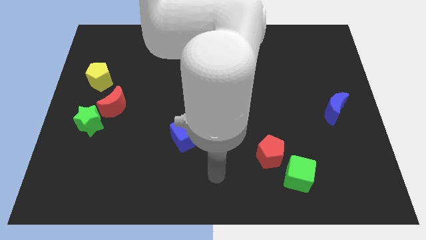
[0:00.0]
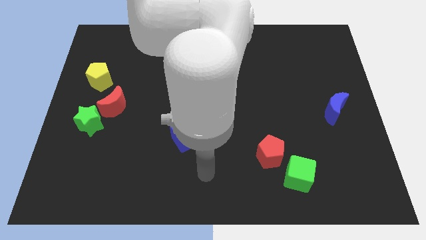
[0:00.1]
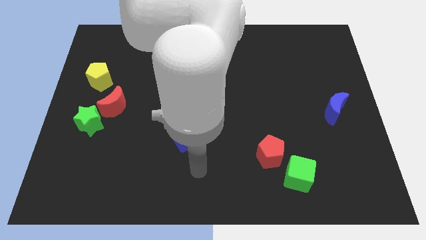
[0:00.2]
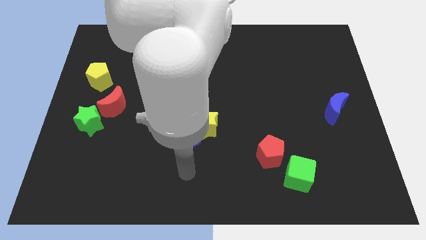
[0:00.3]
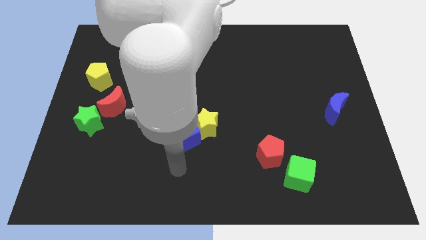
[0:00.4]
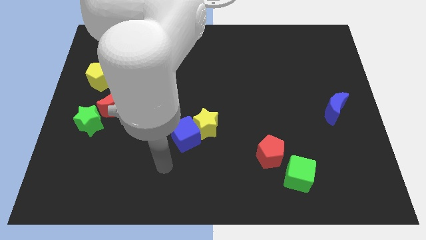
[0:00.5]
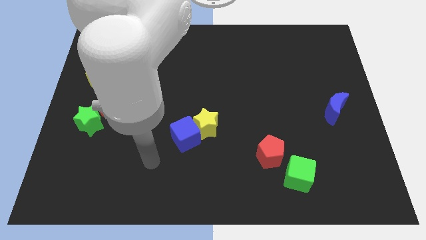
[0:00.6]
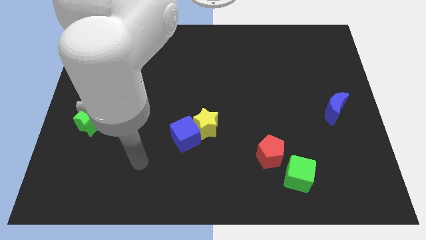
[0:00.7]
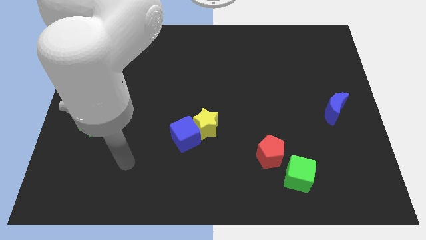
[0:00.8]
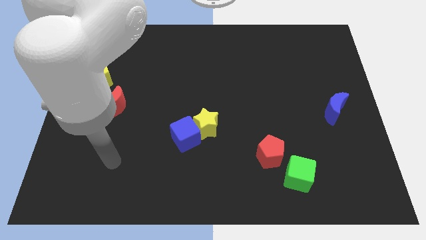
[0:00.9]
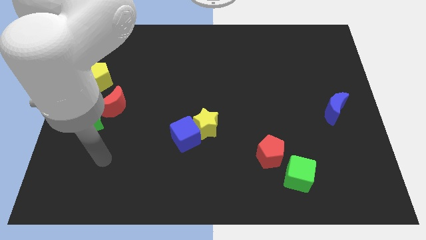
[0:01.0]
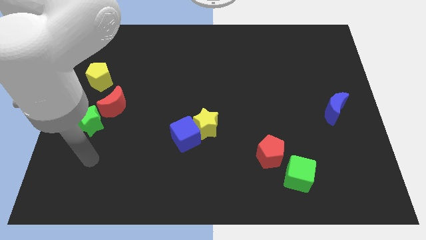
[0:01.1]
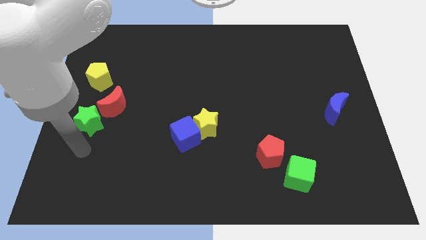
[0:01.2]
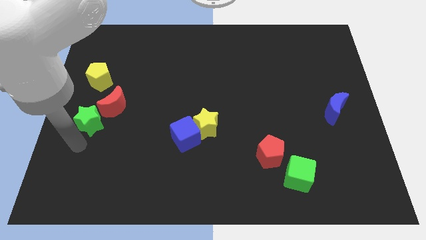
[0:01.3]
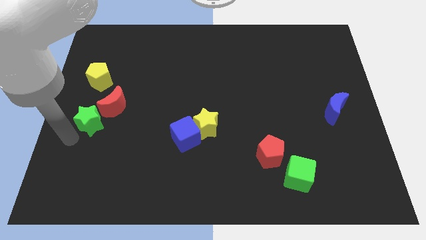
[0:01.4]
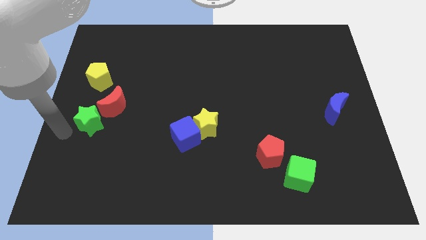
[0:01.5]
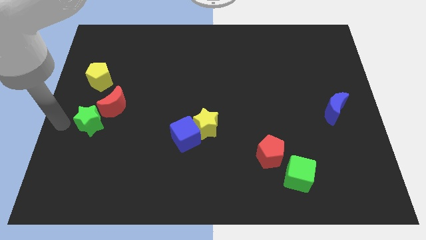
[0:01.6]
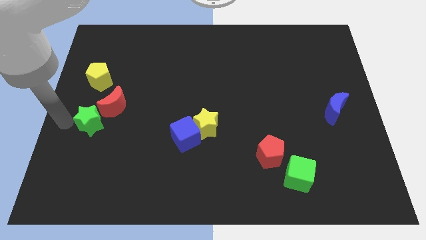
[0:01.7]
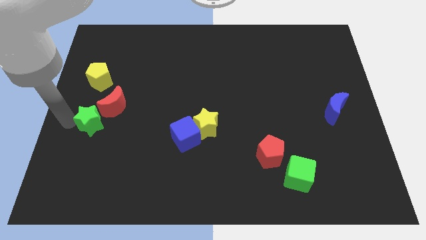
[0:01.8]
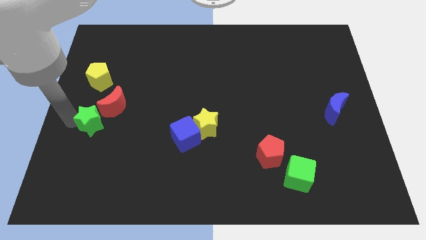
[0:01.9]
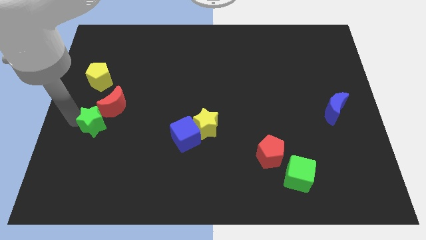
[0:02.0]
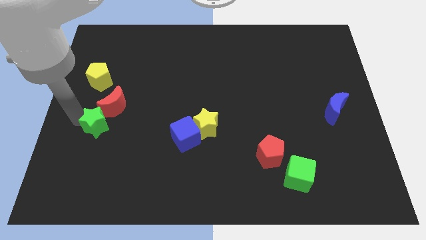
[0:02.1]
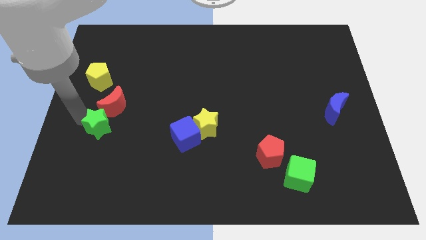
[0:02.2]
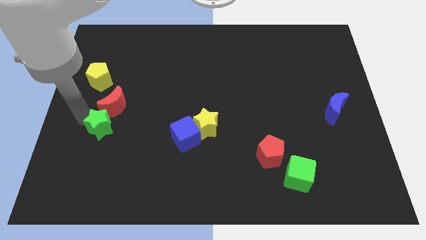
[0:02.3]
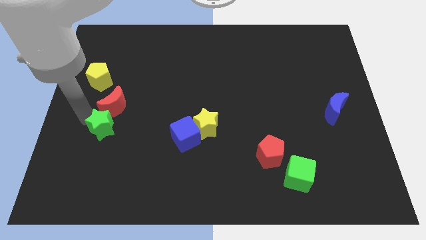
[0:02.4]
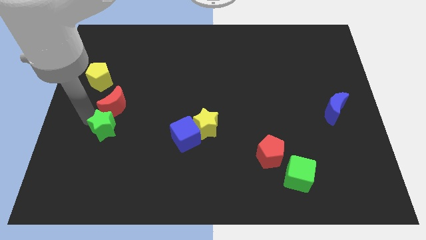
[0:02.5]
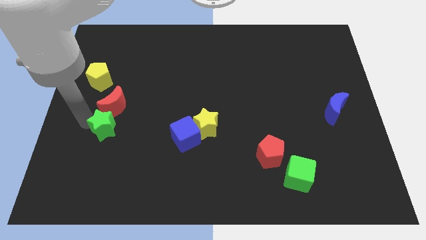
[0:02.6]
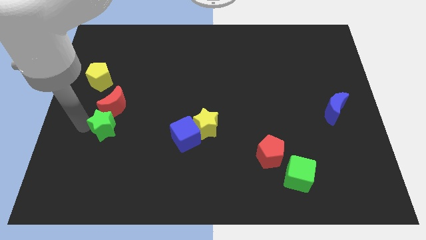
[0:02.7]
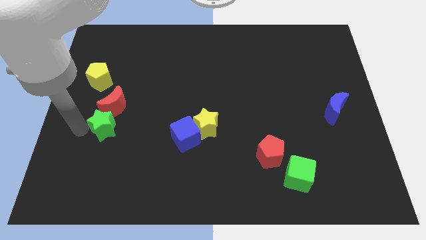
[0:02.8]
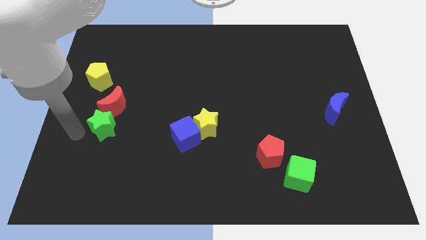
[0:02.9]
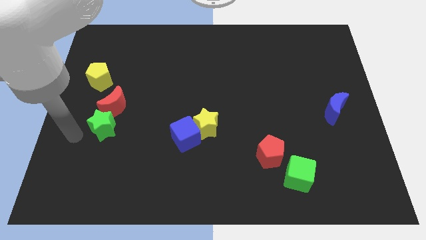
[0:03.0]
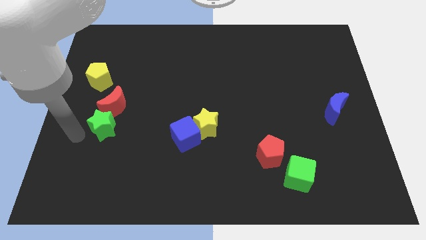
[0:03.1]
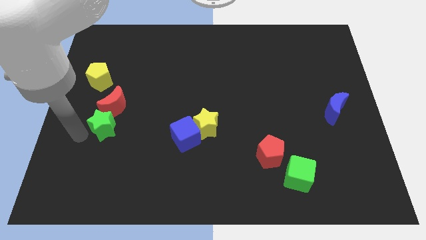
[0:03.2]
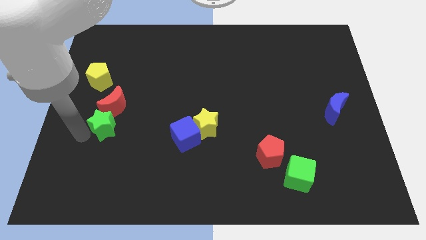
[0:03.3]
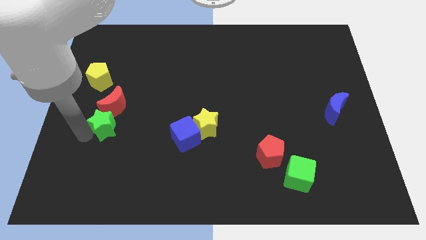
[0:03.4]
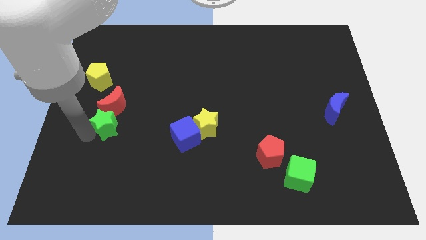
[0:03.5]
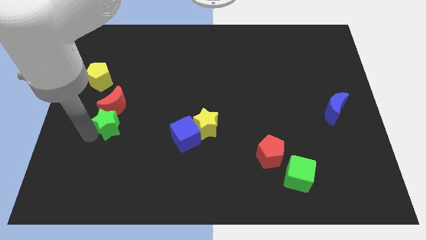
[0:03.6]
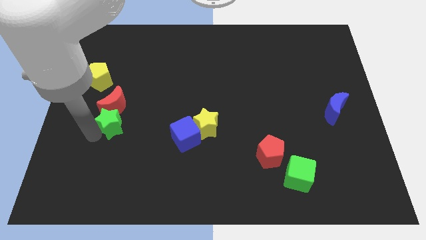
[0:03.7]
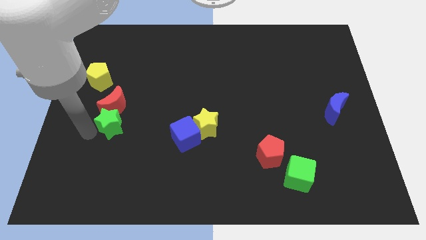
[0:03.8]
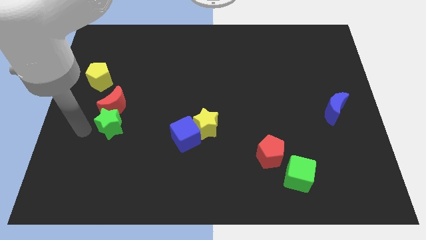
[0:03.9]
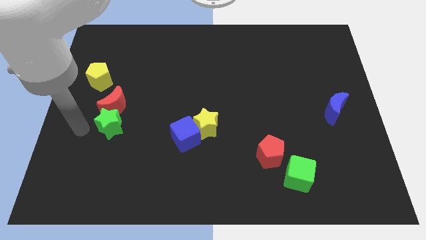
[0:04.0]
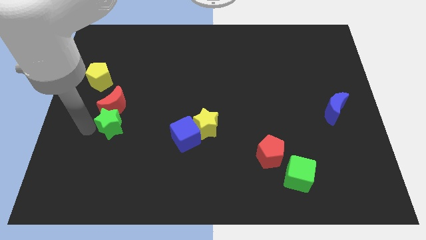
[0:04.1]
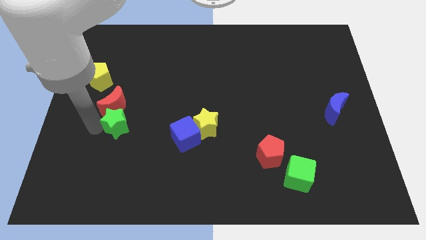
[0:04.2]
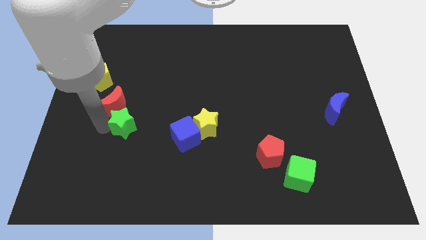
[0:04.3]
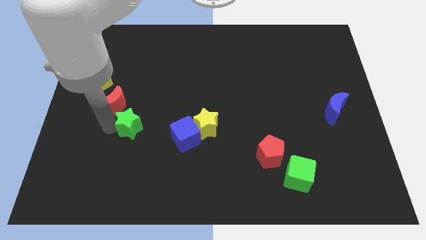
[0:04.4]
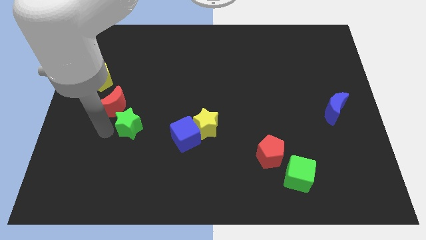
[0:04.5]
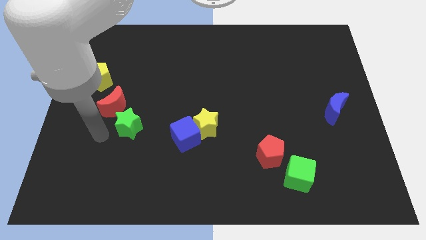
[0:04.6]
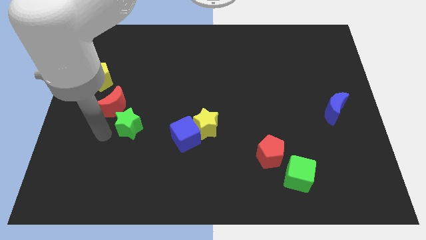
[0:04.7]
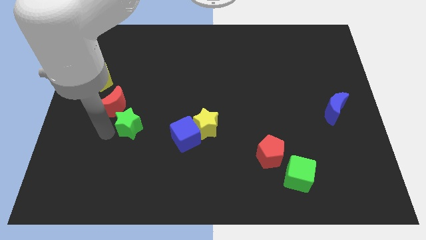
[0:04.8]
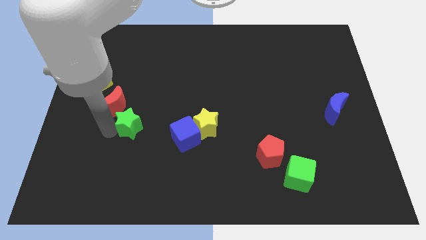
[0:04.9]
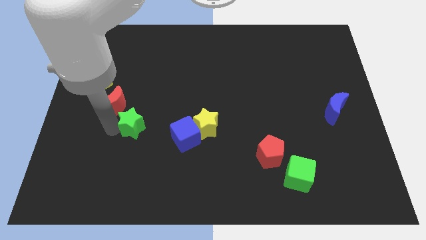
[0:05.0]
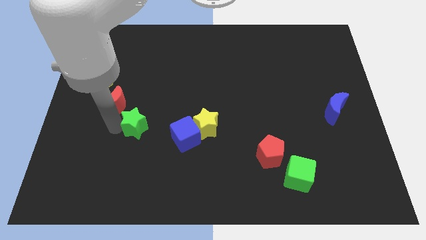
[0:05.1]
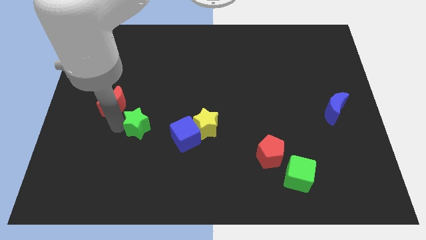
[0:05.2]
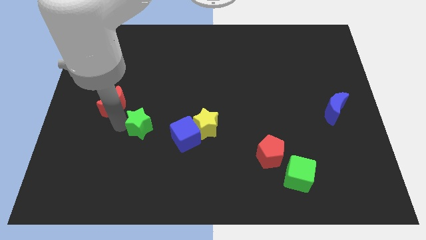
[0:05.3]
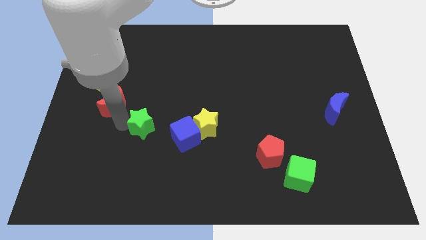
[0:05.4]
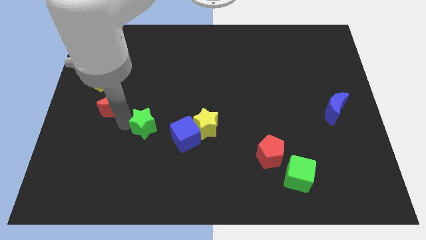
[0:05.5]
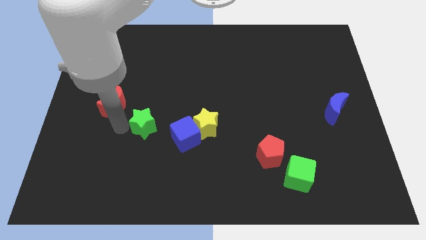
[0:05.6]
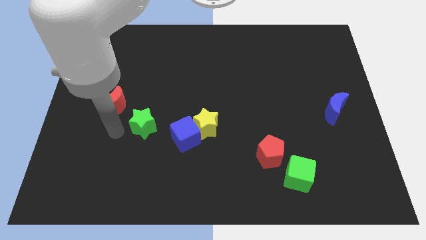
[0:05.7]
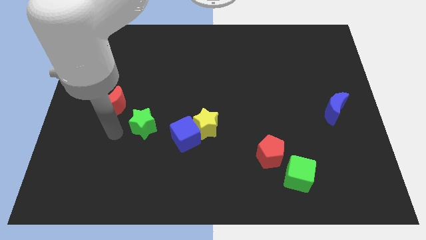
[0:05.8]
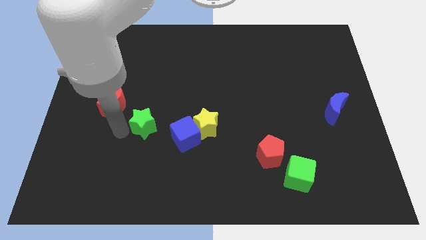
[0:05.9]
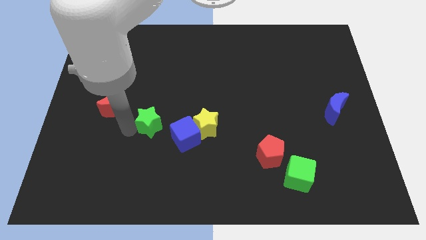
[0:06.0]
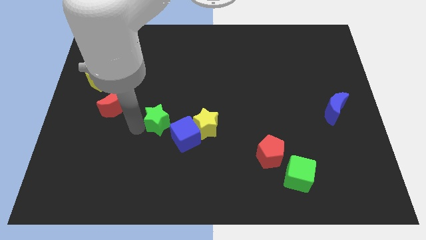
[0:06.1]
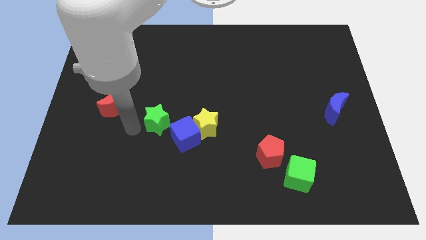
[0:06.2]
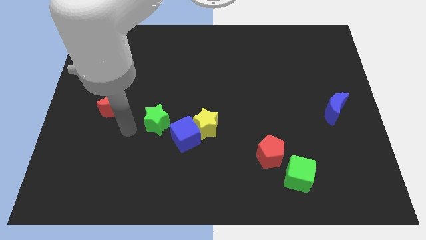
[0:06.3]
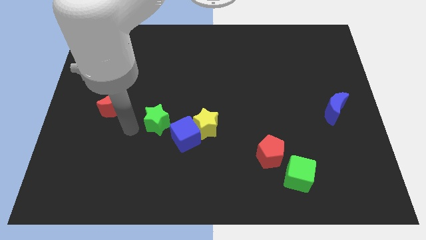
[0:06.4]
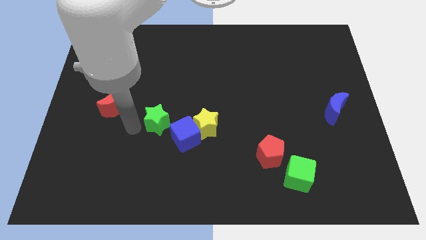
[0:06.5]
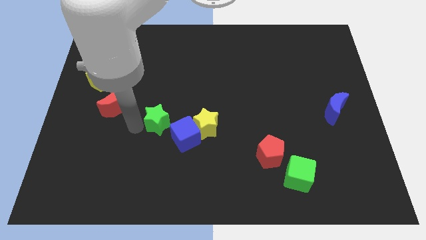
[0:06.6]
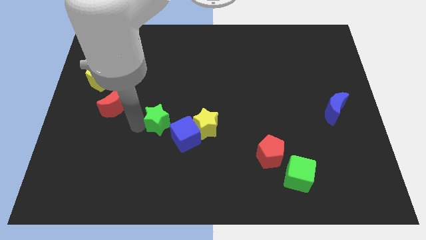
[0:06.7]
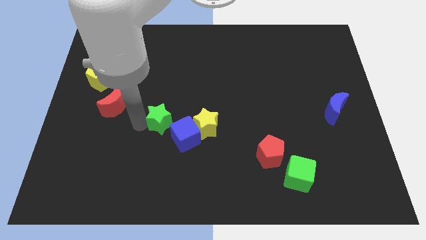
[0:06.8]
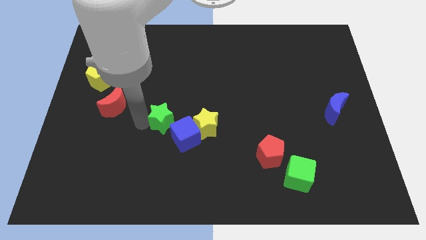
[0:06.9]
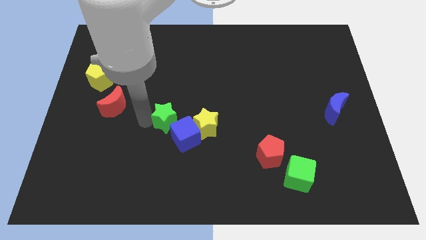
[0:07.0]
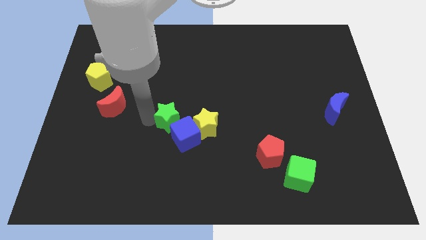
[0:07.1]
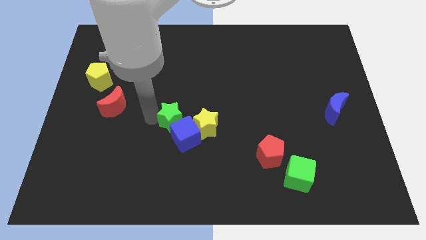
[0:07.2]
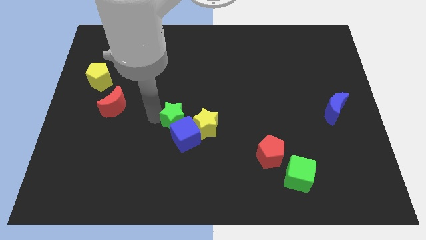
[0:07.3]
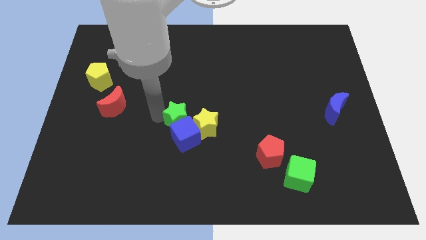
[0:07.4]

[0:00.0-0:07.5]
move the green star right

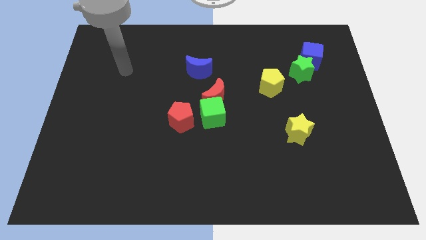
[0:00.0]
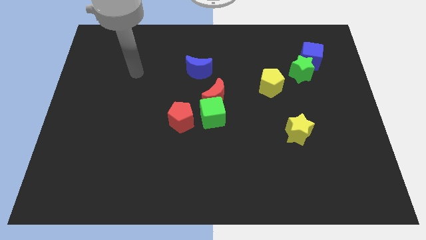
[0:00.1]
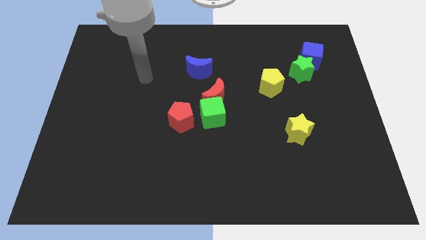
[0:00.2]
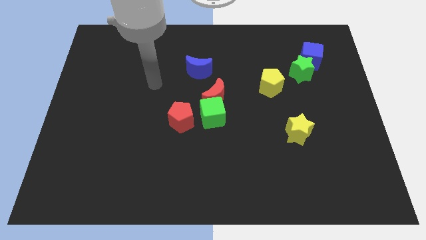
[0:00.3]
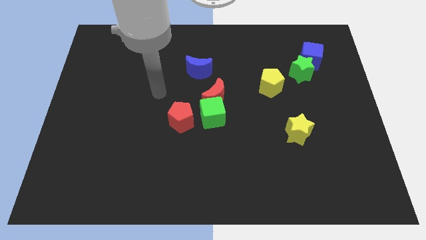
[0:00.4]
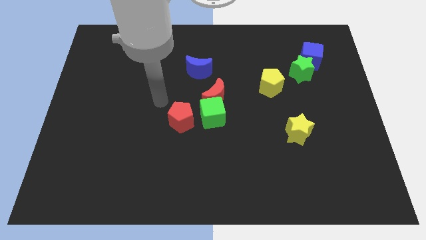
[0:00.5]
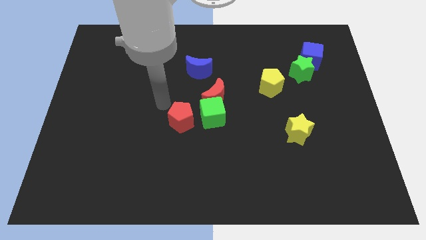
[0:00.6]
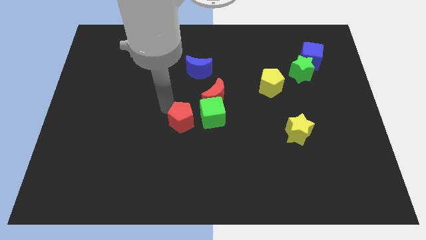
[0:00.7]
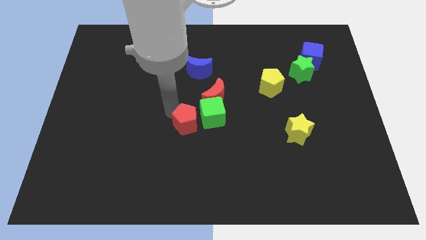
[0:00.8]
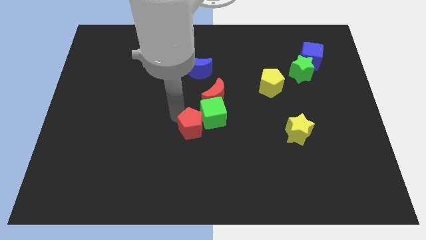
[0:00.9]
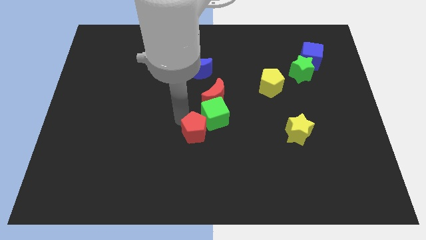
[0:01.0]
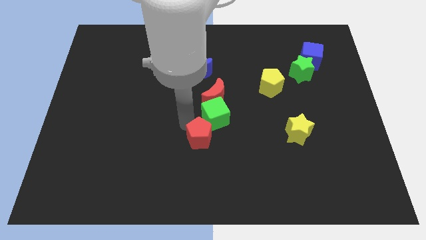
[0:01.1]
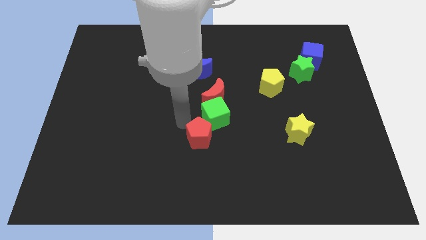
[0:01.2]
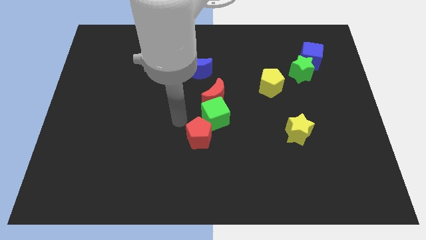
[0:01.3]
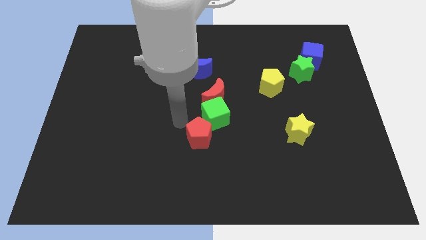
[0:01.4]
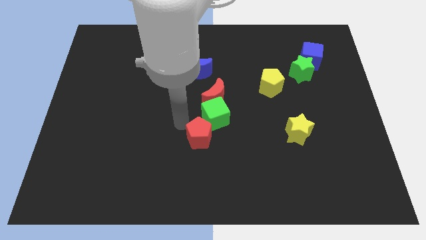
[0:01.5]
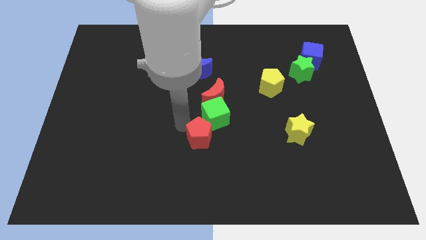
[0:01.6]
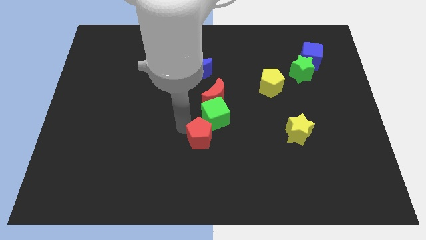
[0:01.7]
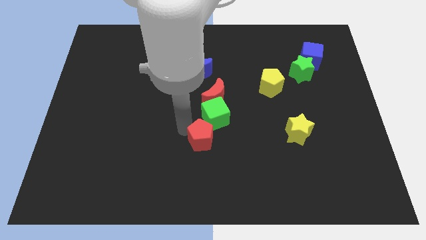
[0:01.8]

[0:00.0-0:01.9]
slide the red pentagon a bit down and to the right diagonally
